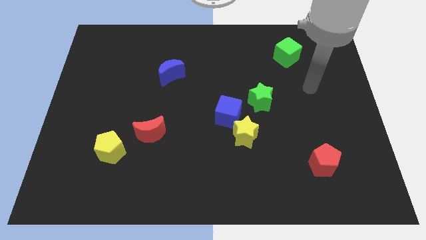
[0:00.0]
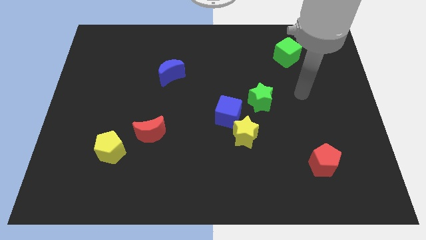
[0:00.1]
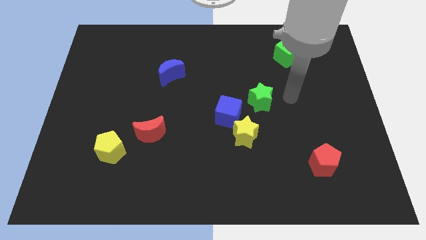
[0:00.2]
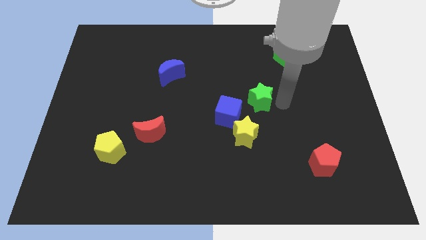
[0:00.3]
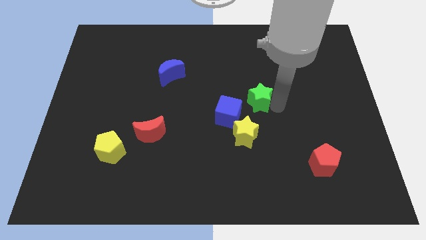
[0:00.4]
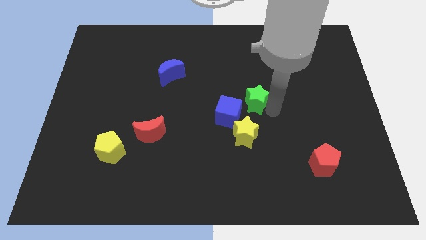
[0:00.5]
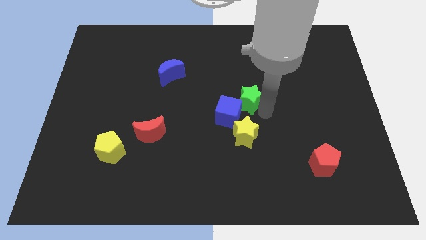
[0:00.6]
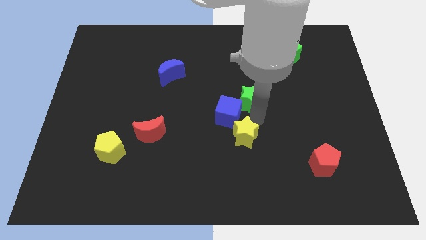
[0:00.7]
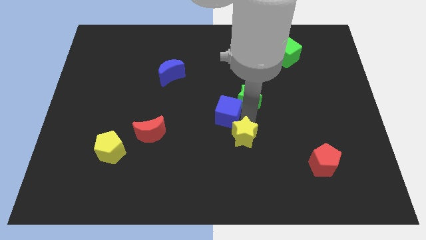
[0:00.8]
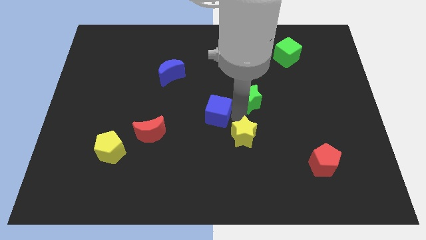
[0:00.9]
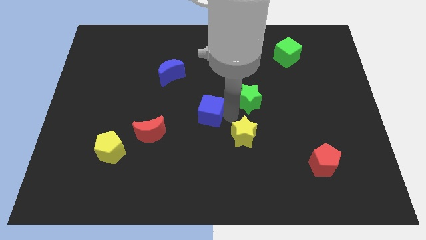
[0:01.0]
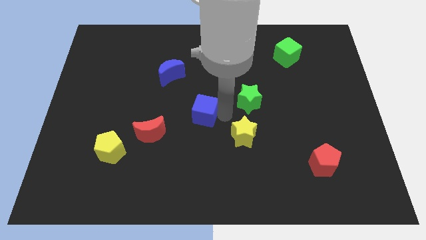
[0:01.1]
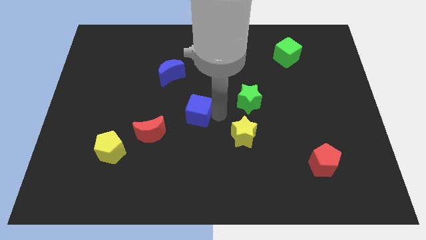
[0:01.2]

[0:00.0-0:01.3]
separate the blue cube from the yellow star and green star

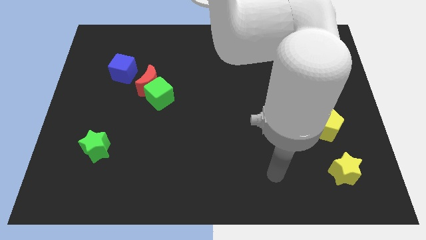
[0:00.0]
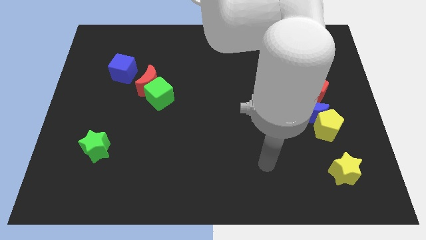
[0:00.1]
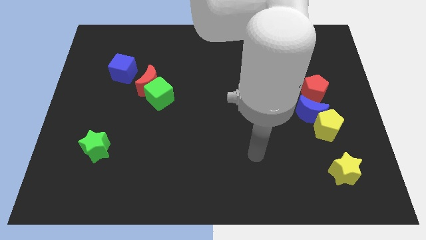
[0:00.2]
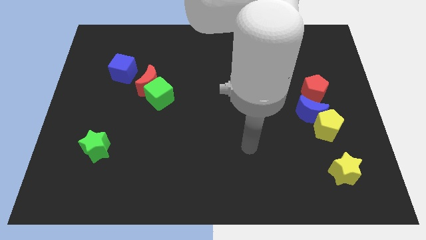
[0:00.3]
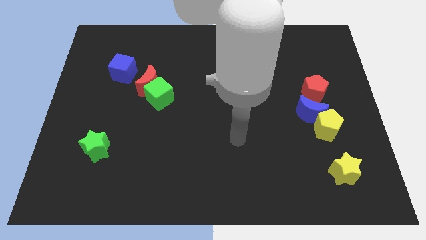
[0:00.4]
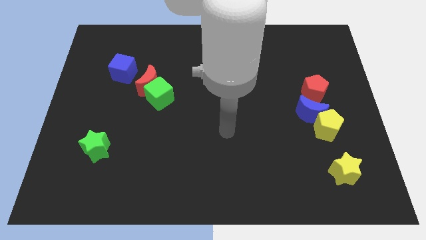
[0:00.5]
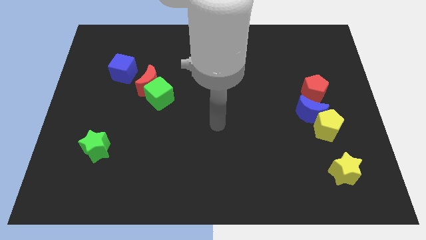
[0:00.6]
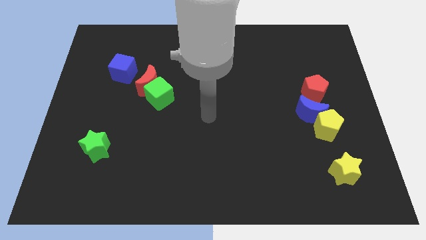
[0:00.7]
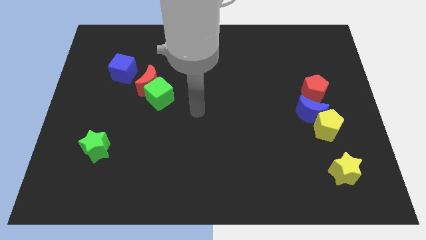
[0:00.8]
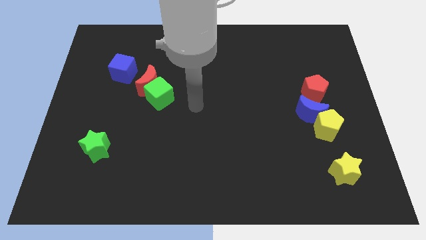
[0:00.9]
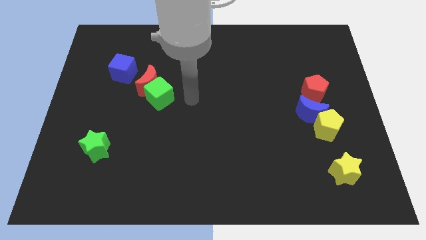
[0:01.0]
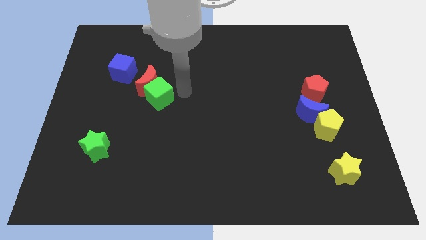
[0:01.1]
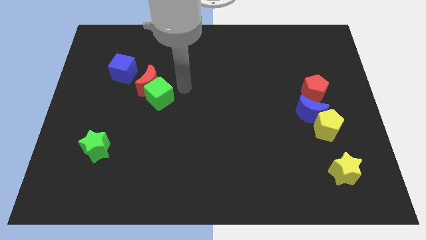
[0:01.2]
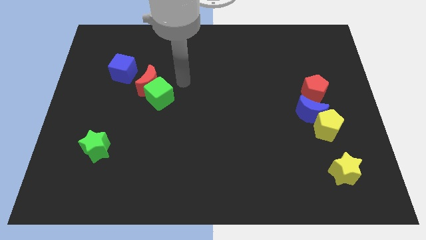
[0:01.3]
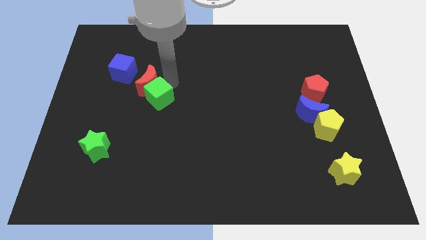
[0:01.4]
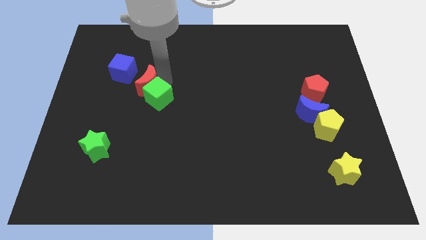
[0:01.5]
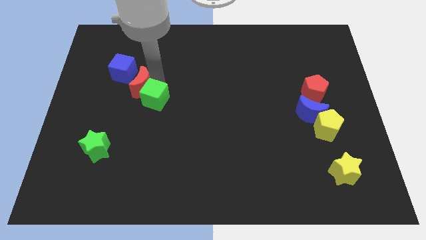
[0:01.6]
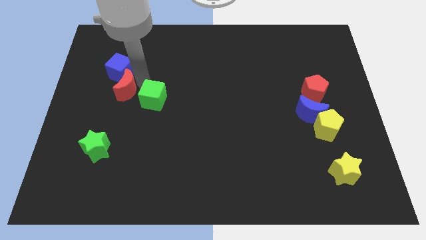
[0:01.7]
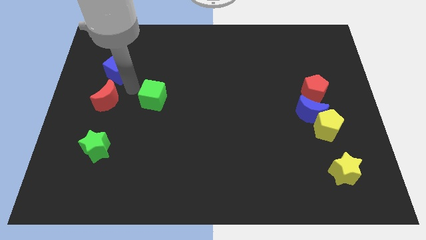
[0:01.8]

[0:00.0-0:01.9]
separate the green cube from the red moon

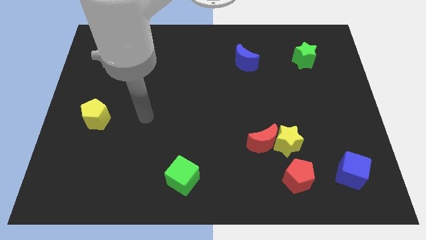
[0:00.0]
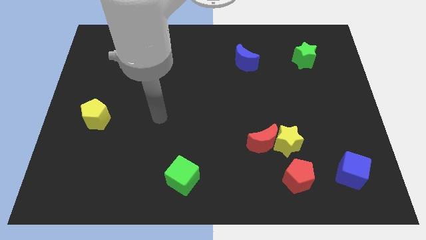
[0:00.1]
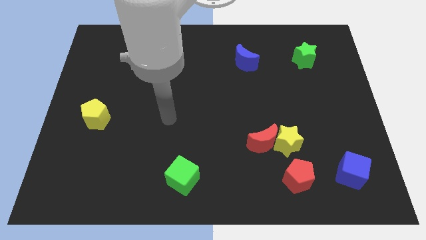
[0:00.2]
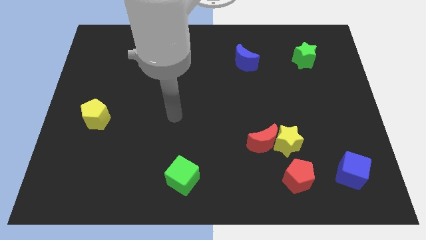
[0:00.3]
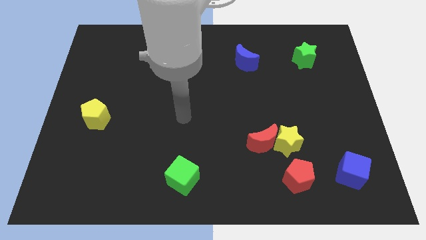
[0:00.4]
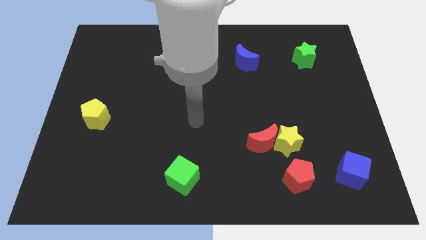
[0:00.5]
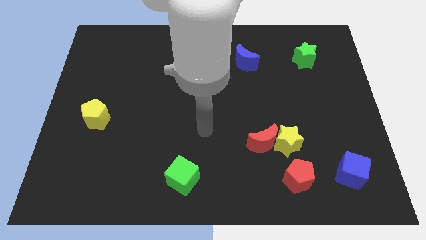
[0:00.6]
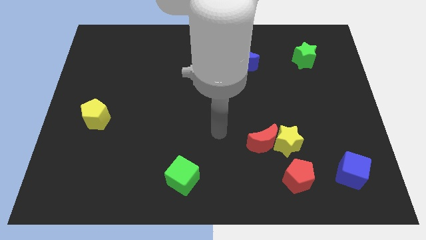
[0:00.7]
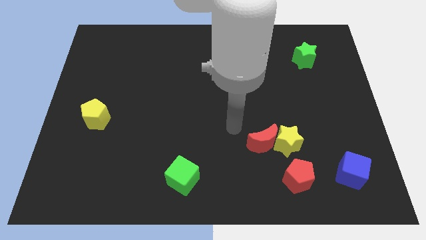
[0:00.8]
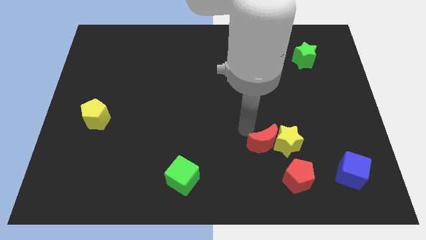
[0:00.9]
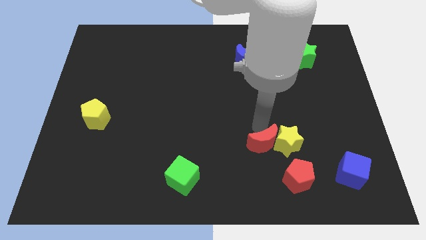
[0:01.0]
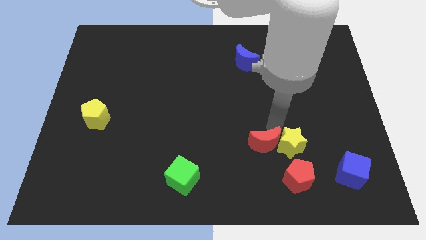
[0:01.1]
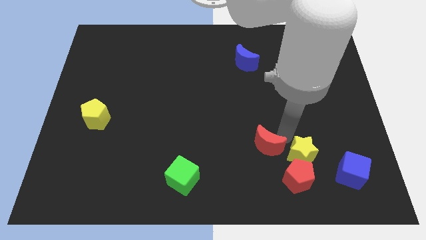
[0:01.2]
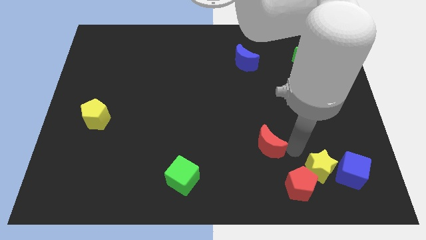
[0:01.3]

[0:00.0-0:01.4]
move the red moon away from the yellow star

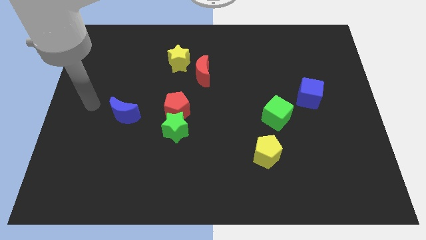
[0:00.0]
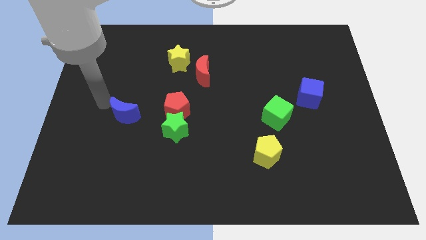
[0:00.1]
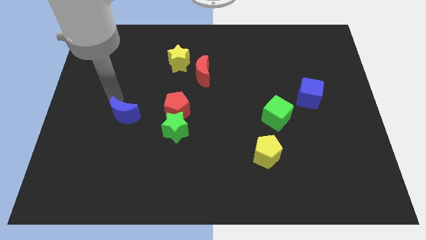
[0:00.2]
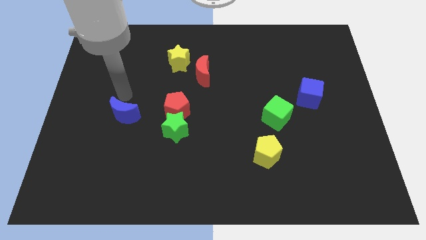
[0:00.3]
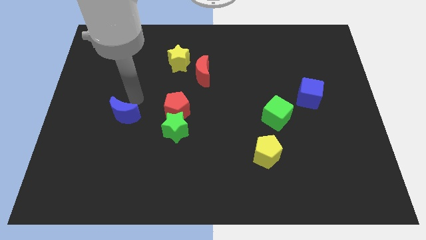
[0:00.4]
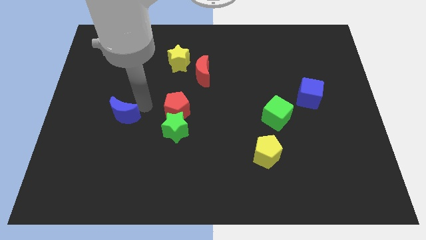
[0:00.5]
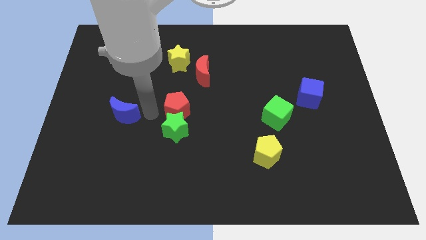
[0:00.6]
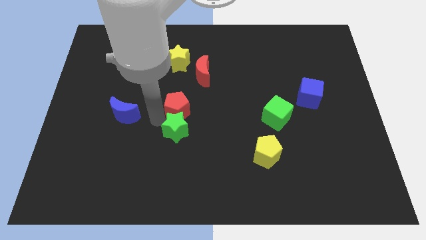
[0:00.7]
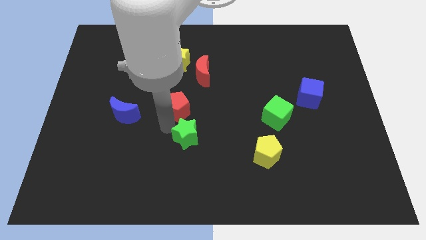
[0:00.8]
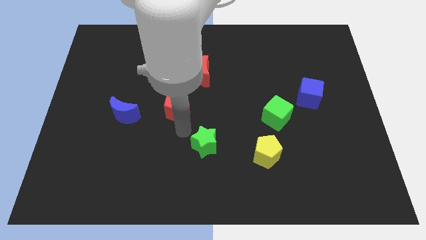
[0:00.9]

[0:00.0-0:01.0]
pull the red pentagon apart from the green star

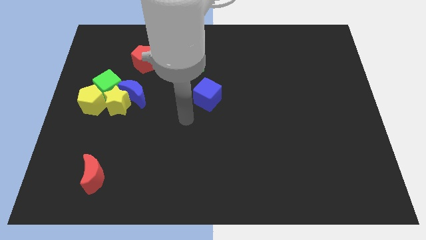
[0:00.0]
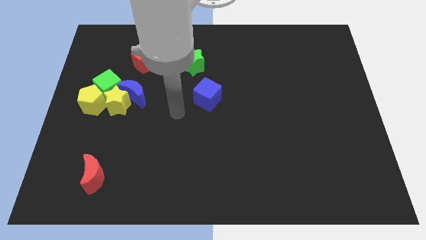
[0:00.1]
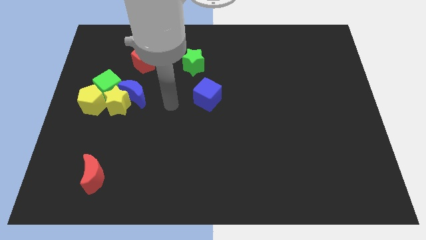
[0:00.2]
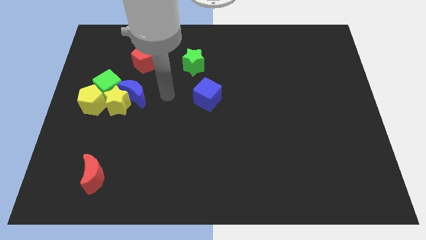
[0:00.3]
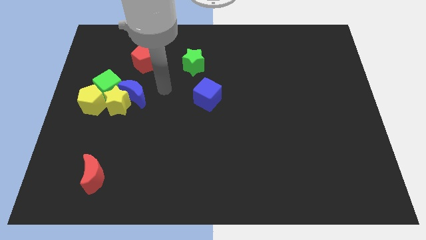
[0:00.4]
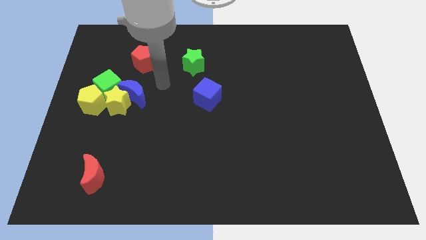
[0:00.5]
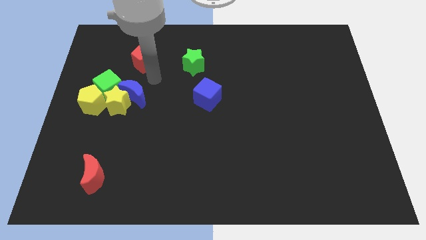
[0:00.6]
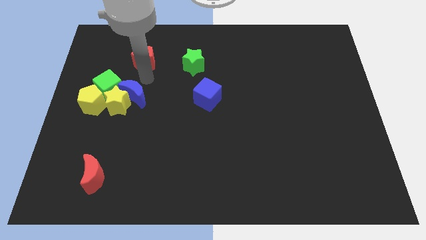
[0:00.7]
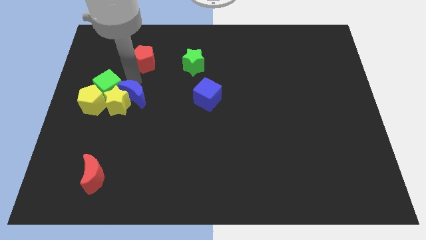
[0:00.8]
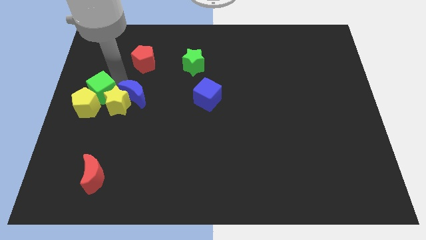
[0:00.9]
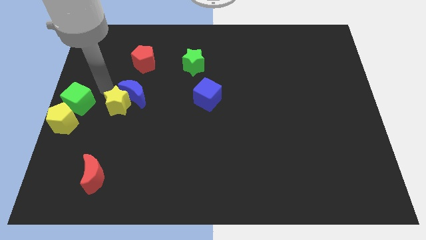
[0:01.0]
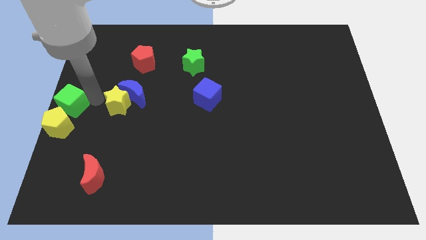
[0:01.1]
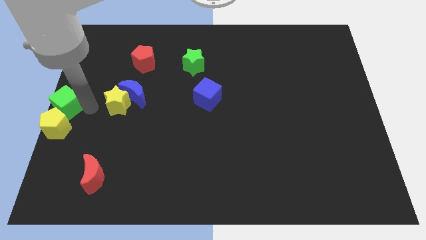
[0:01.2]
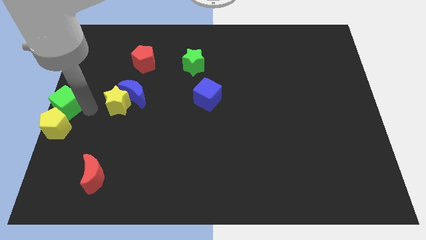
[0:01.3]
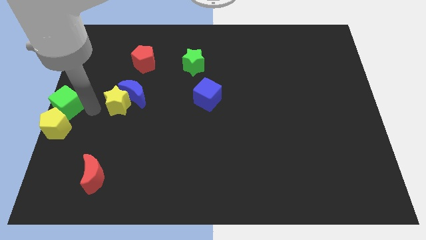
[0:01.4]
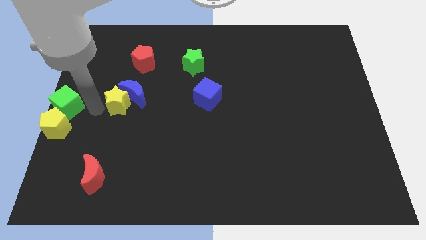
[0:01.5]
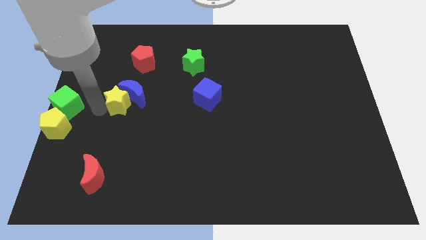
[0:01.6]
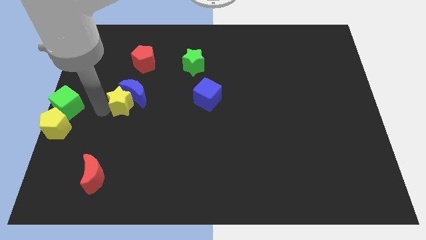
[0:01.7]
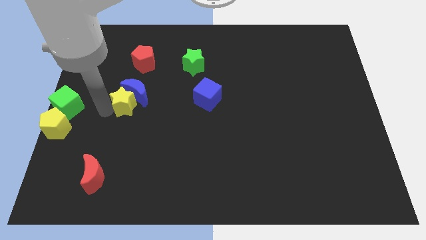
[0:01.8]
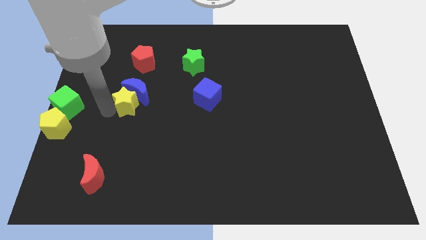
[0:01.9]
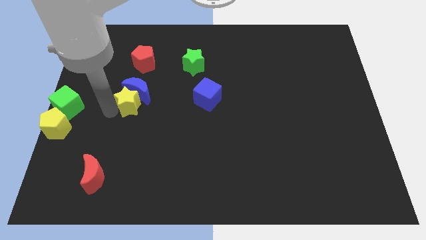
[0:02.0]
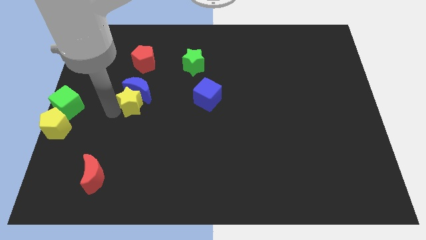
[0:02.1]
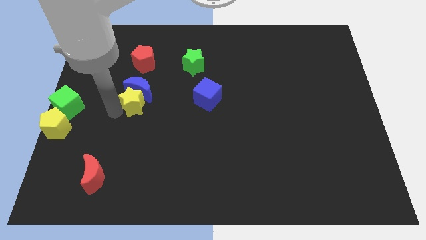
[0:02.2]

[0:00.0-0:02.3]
move the yellow star away from the blue moon, green cube, and yellow pentagon

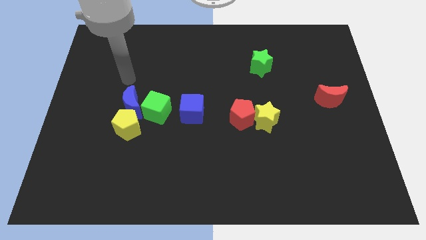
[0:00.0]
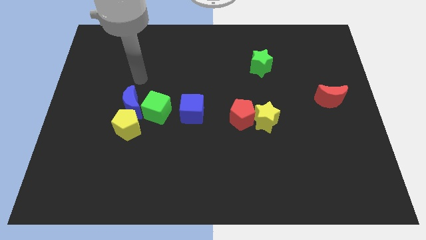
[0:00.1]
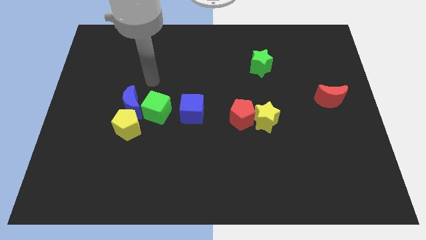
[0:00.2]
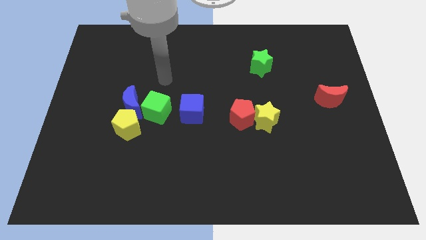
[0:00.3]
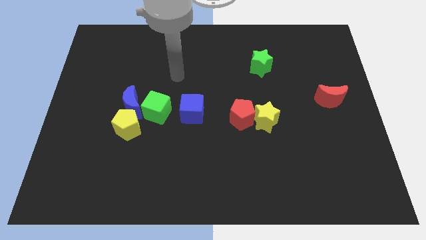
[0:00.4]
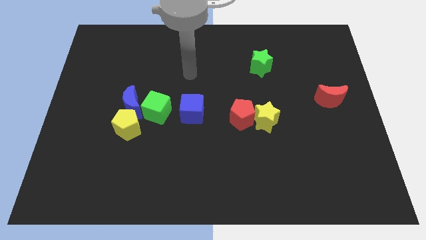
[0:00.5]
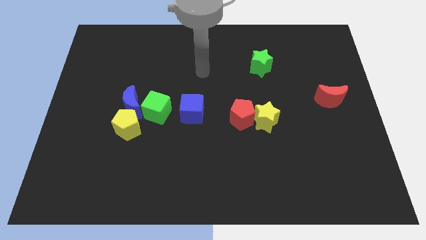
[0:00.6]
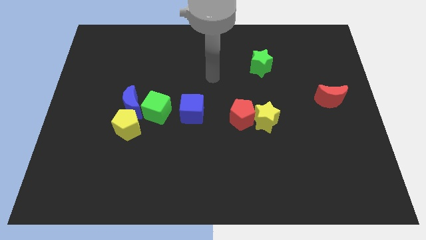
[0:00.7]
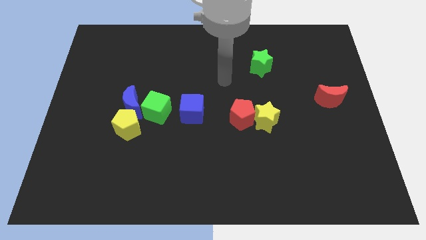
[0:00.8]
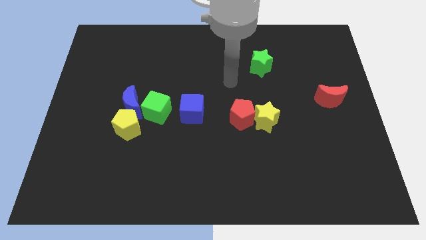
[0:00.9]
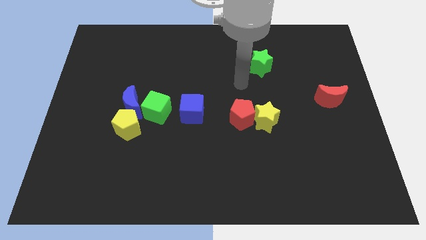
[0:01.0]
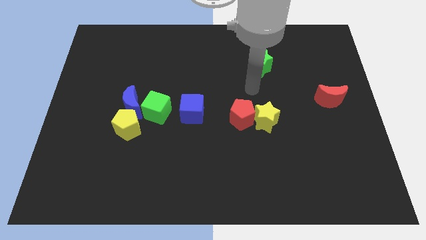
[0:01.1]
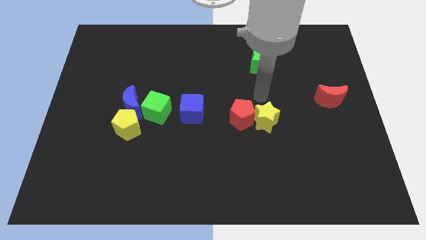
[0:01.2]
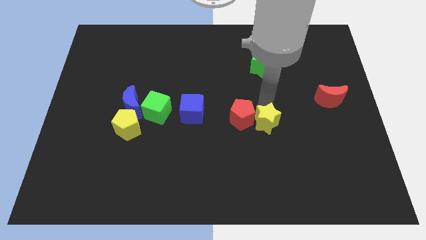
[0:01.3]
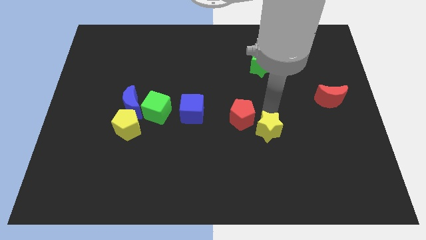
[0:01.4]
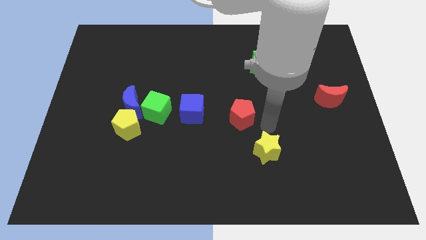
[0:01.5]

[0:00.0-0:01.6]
pull the red pentagon apart from the yellow star
